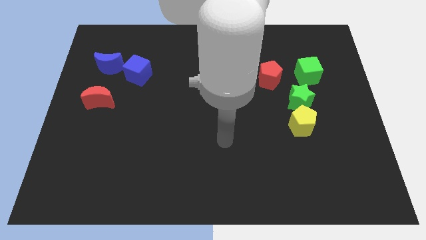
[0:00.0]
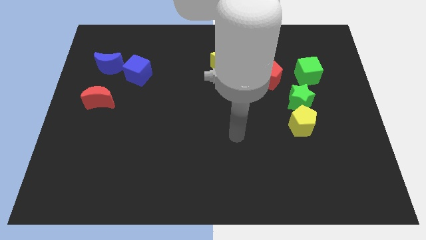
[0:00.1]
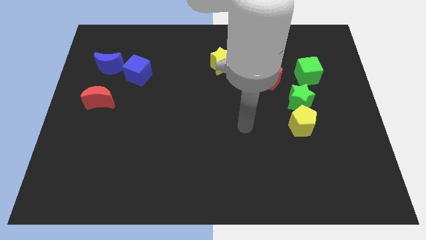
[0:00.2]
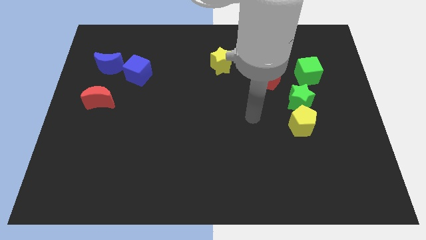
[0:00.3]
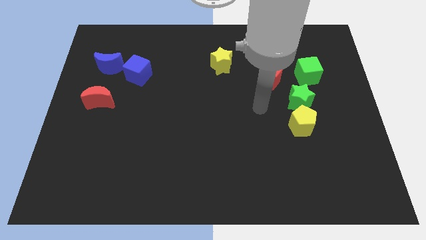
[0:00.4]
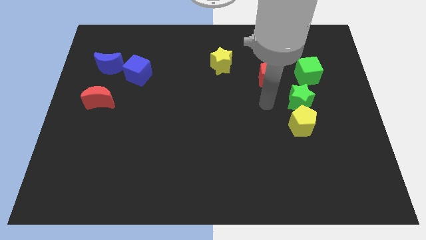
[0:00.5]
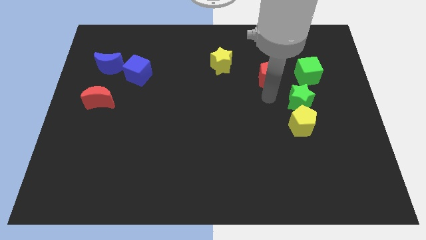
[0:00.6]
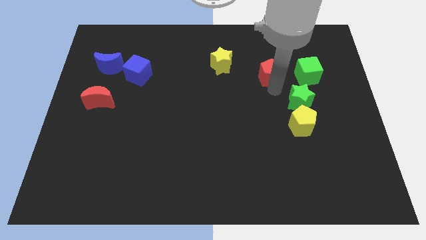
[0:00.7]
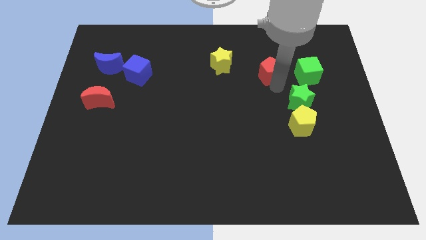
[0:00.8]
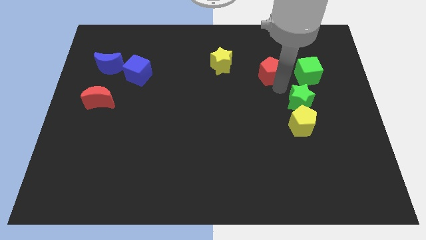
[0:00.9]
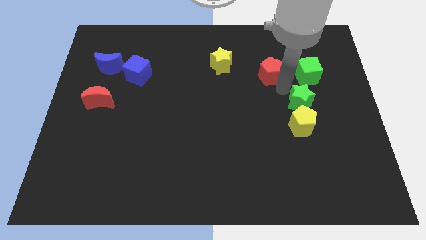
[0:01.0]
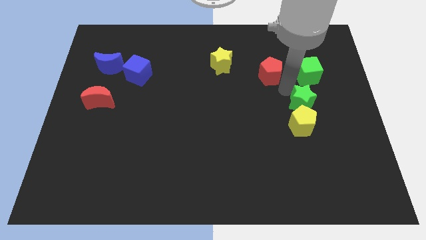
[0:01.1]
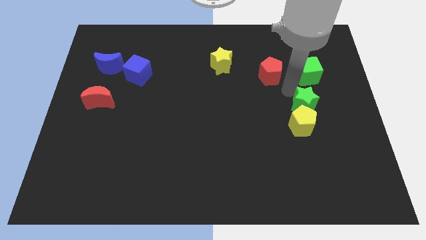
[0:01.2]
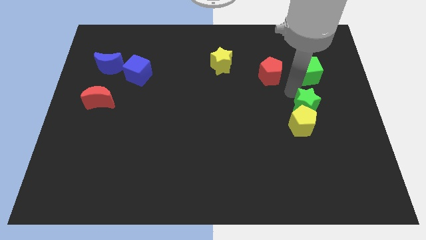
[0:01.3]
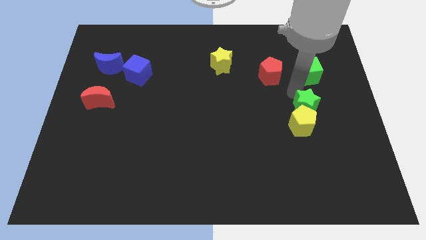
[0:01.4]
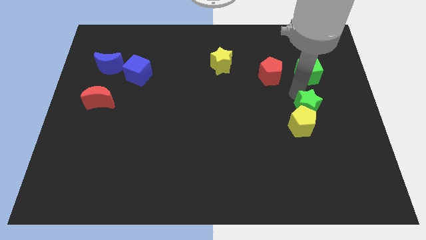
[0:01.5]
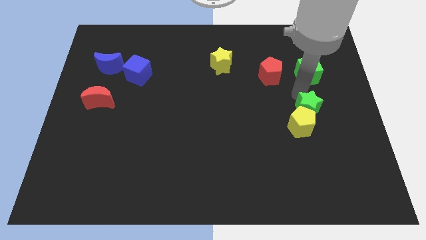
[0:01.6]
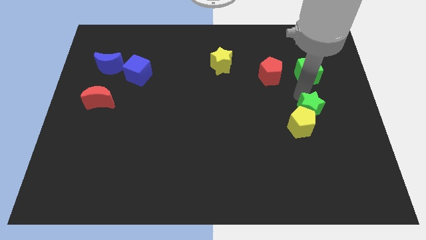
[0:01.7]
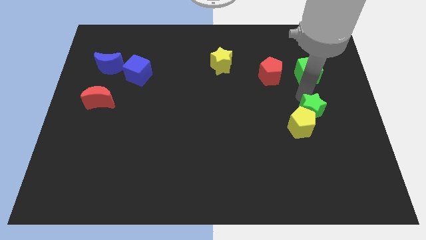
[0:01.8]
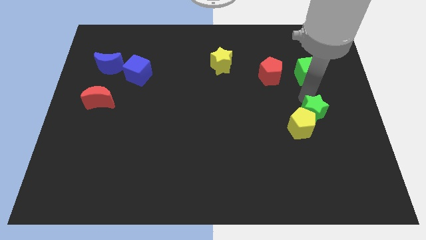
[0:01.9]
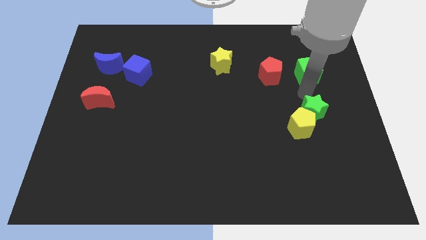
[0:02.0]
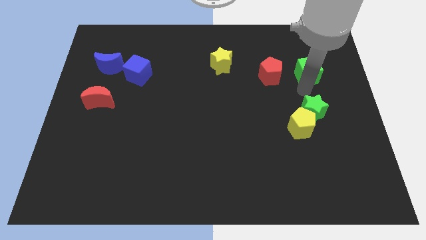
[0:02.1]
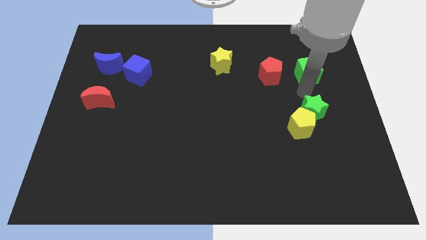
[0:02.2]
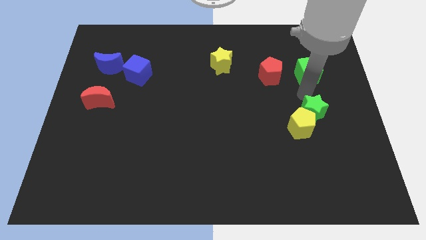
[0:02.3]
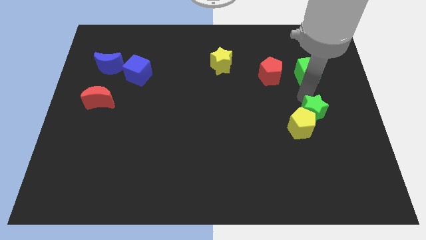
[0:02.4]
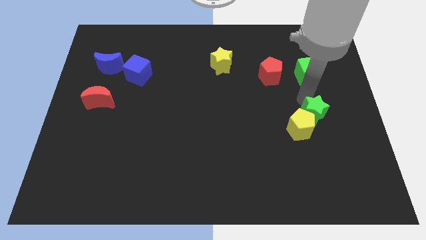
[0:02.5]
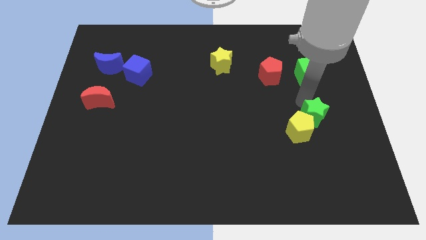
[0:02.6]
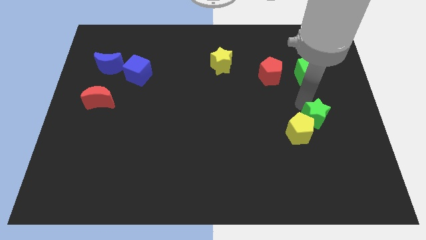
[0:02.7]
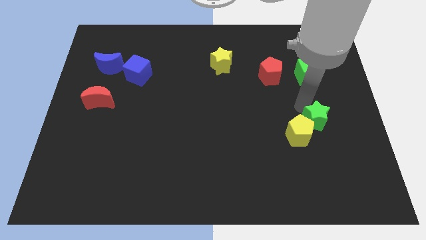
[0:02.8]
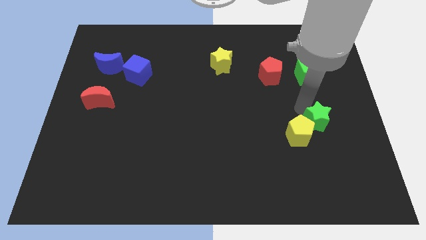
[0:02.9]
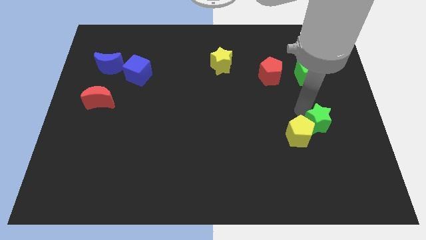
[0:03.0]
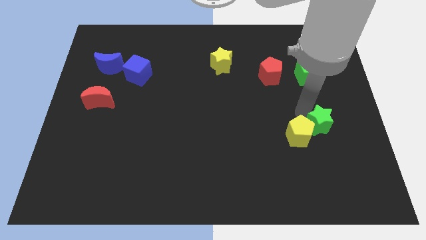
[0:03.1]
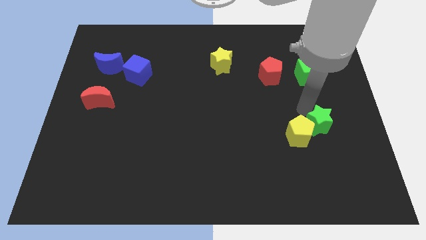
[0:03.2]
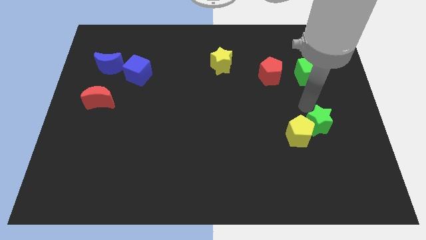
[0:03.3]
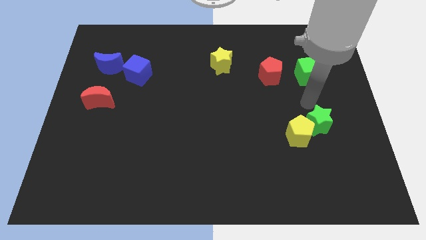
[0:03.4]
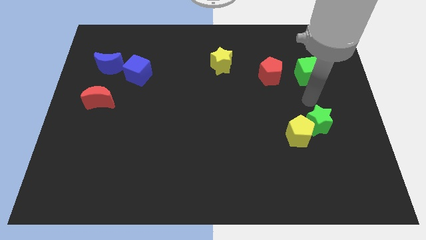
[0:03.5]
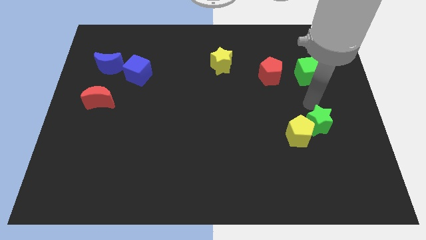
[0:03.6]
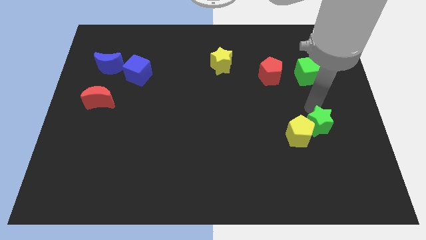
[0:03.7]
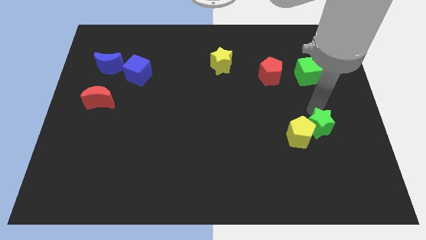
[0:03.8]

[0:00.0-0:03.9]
slightly push the green star down

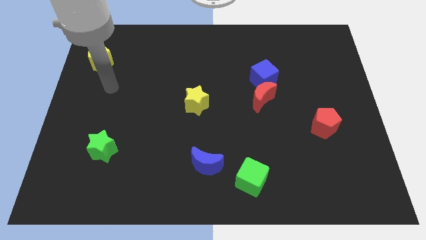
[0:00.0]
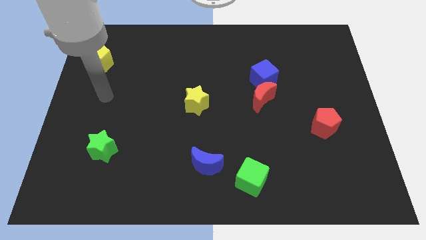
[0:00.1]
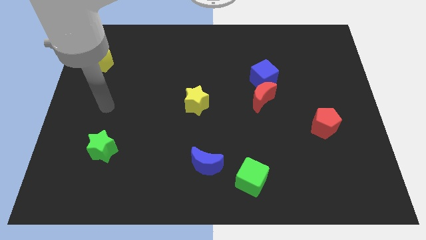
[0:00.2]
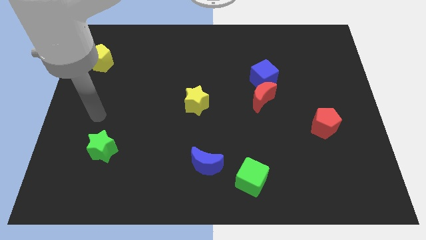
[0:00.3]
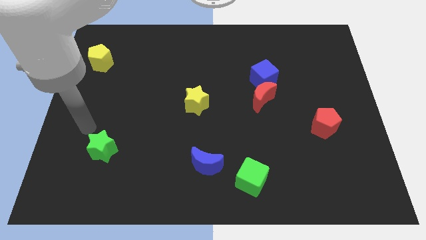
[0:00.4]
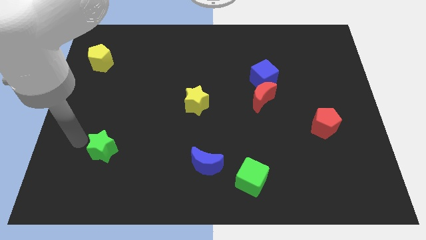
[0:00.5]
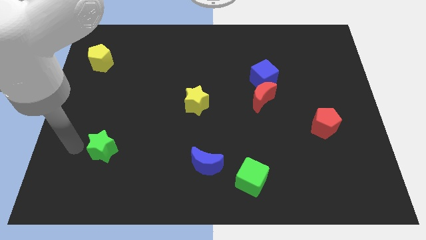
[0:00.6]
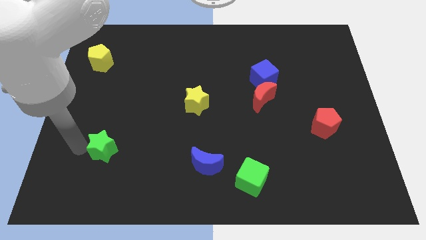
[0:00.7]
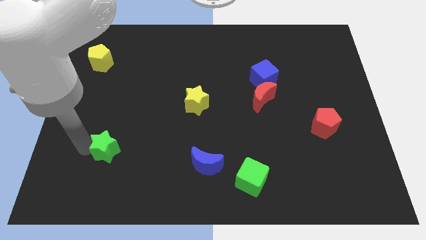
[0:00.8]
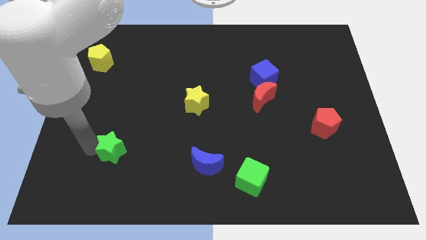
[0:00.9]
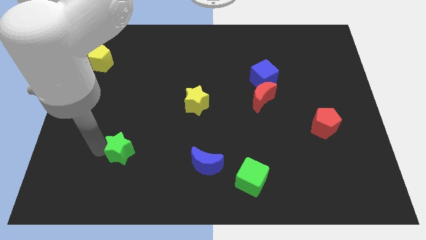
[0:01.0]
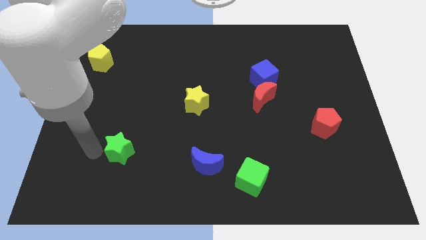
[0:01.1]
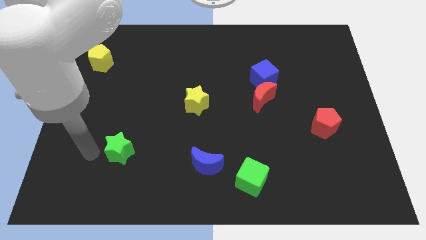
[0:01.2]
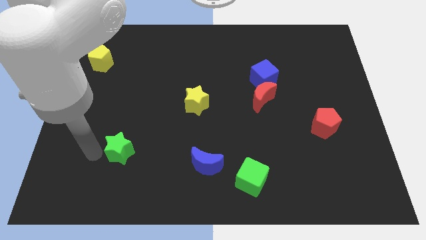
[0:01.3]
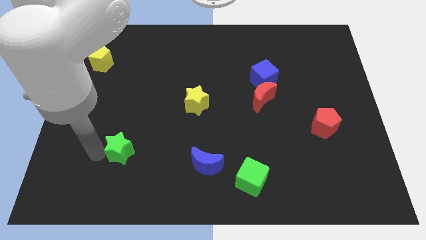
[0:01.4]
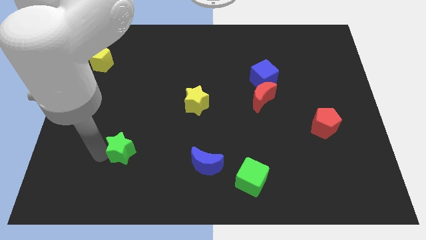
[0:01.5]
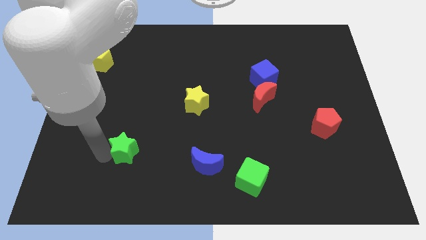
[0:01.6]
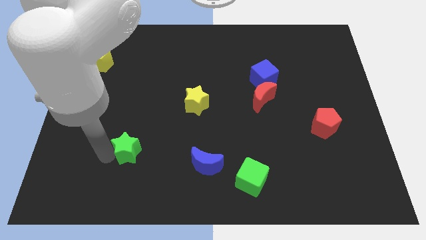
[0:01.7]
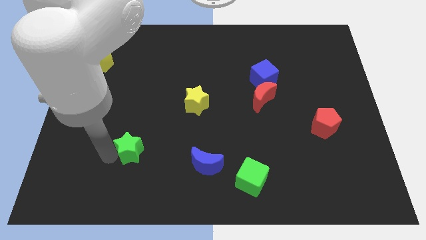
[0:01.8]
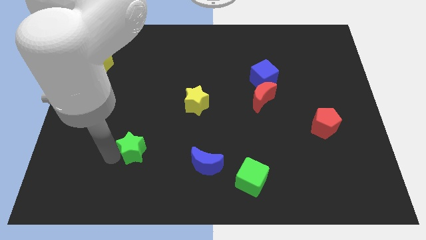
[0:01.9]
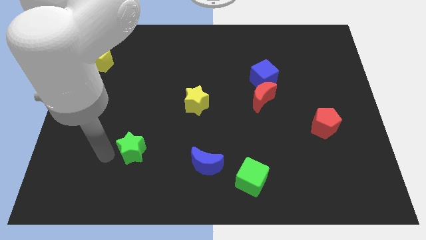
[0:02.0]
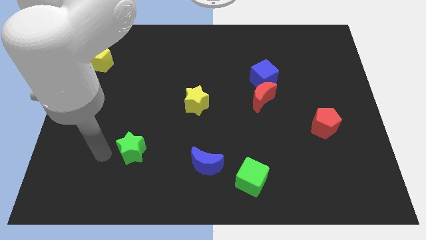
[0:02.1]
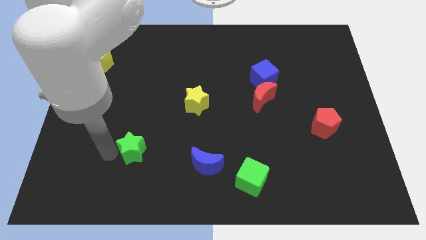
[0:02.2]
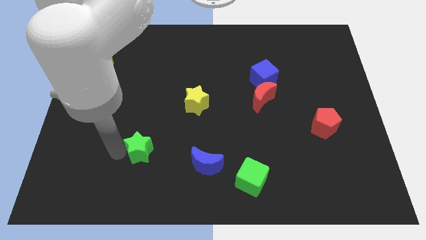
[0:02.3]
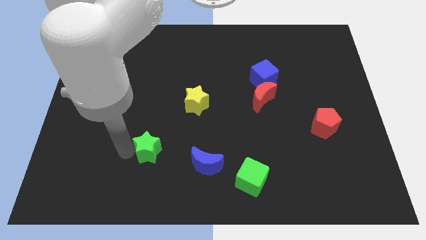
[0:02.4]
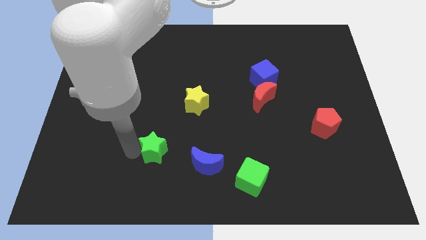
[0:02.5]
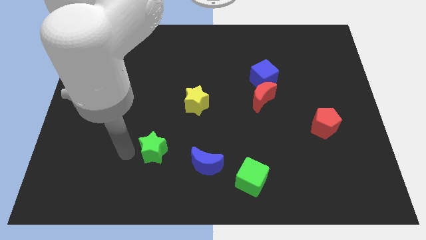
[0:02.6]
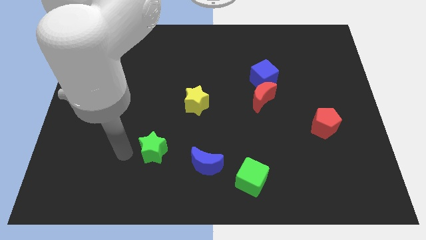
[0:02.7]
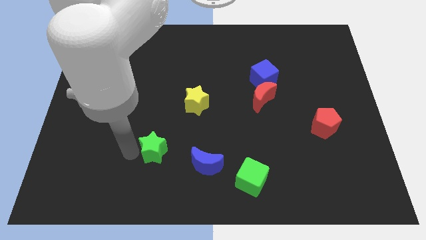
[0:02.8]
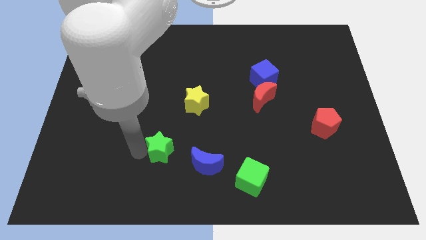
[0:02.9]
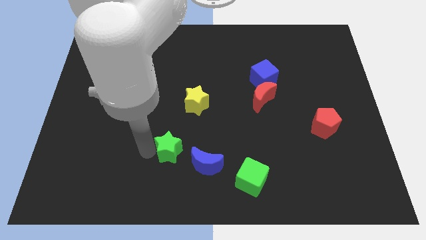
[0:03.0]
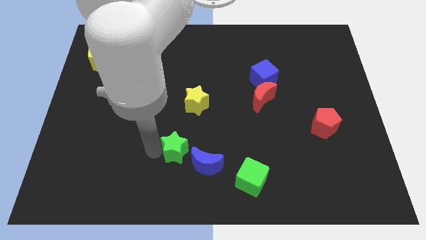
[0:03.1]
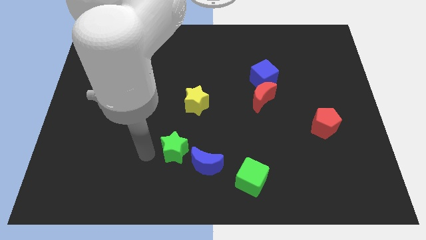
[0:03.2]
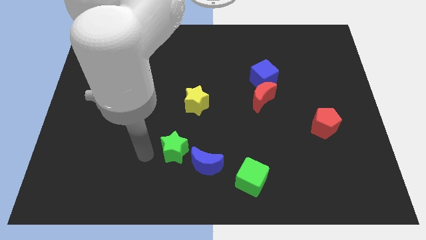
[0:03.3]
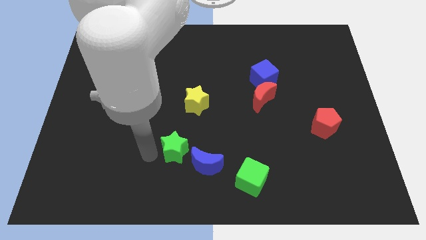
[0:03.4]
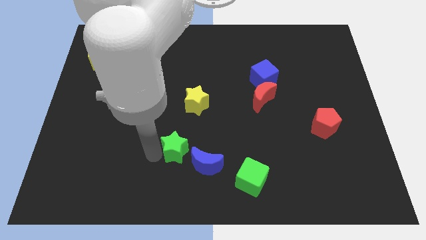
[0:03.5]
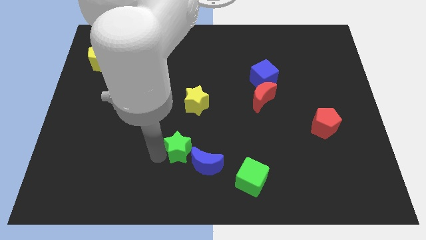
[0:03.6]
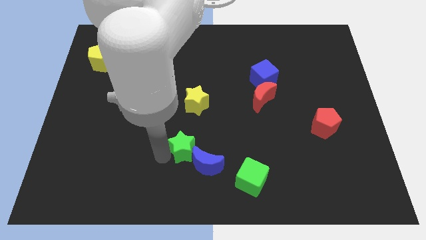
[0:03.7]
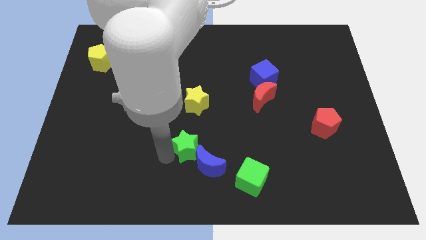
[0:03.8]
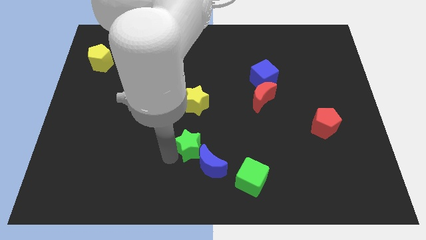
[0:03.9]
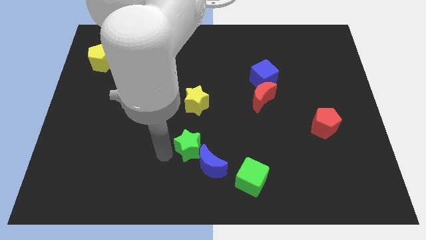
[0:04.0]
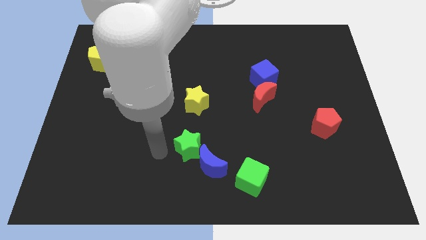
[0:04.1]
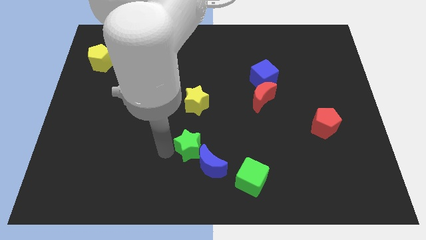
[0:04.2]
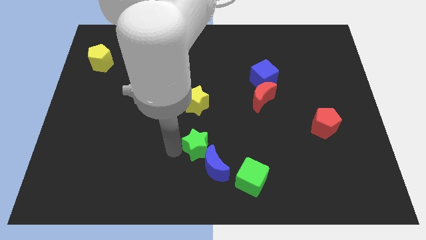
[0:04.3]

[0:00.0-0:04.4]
slide the green star right
